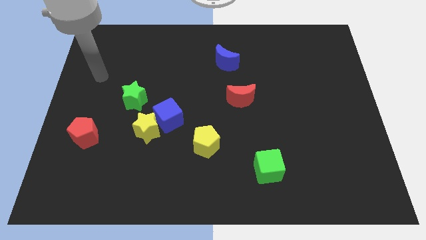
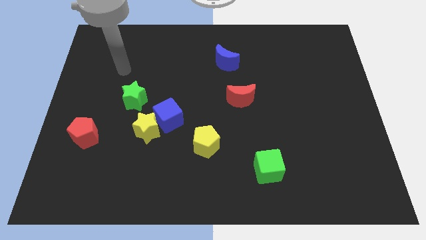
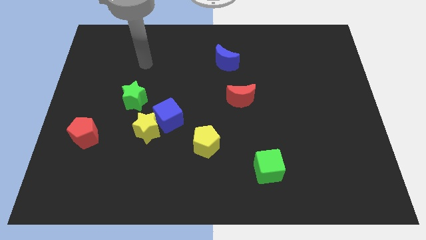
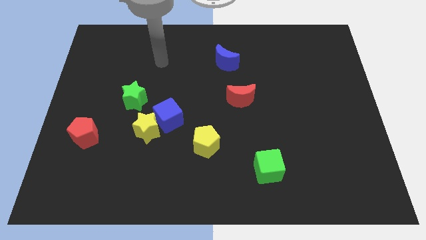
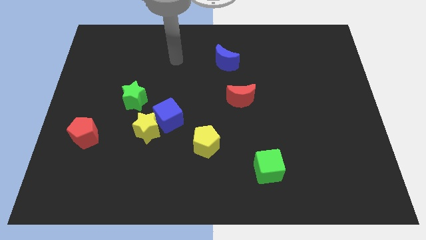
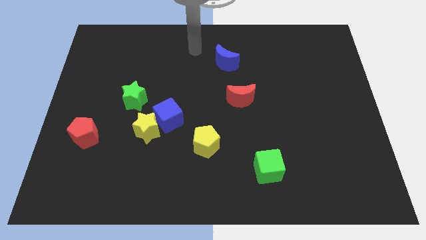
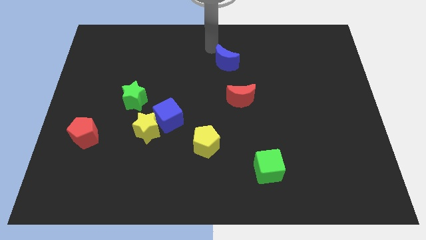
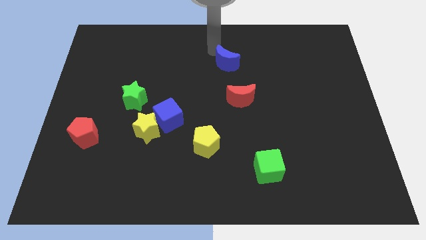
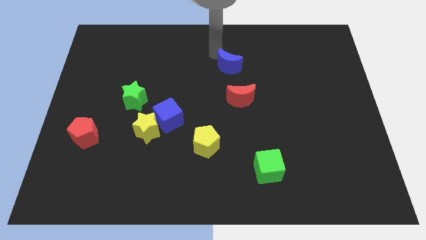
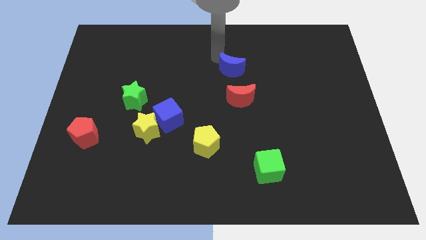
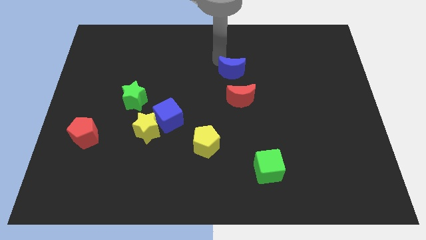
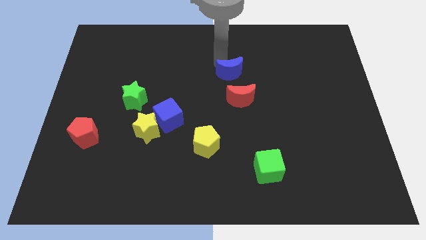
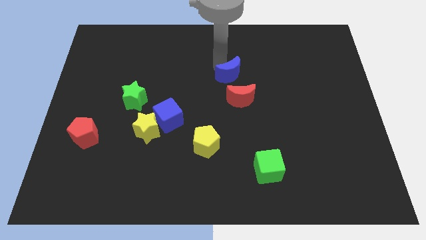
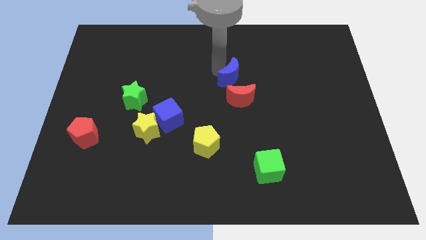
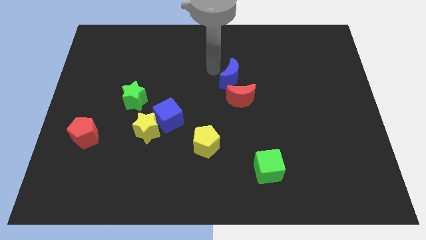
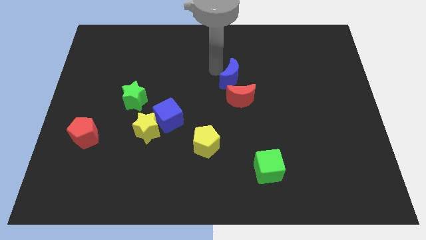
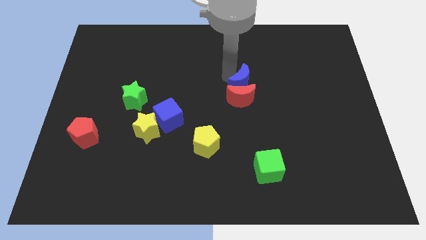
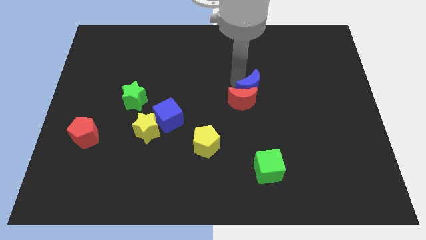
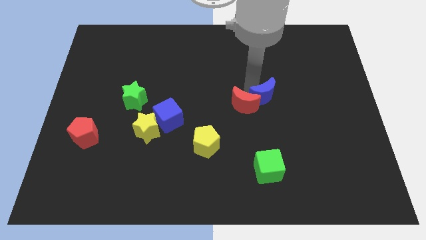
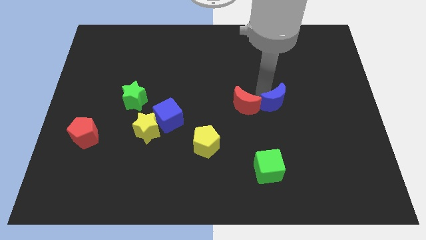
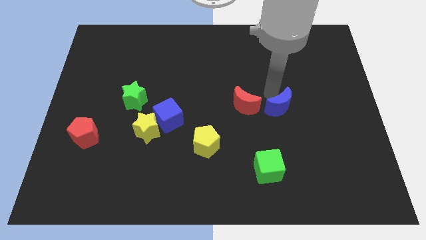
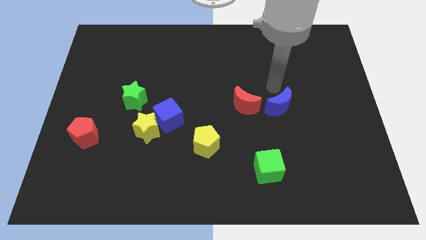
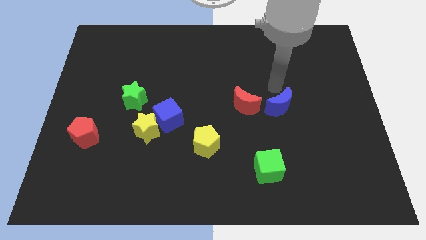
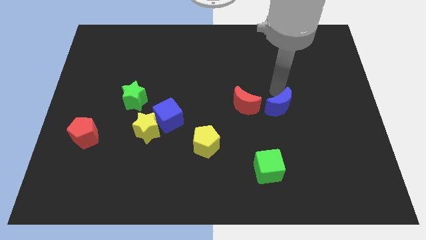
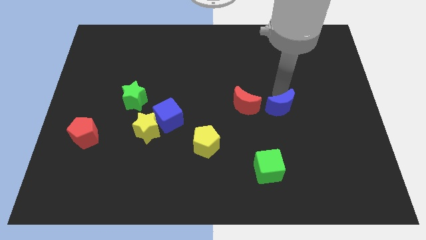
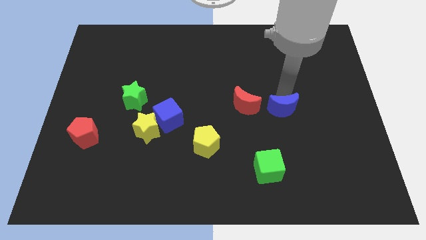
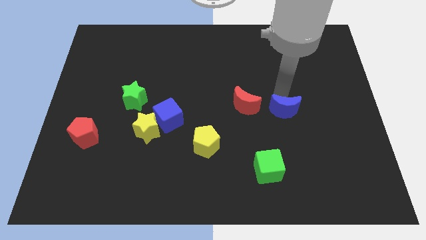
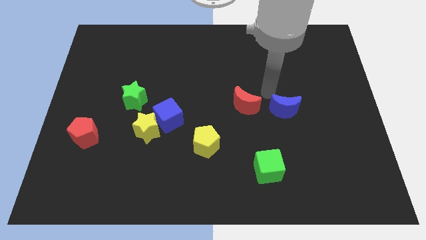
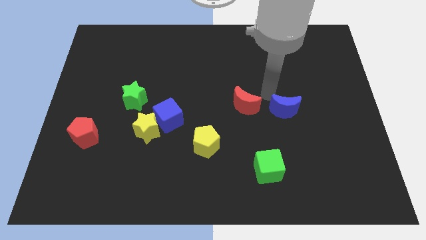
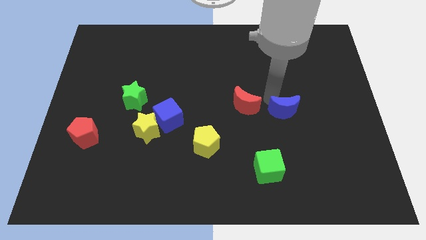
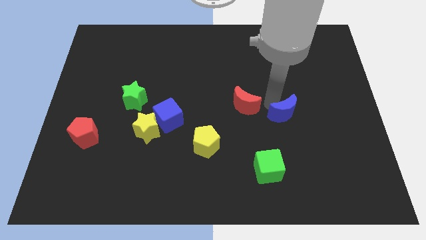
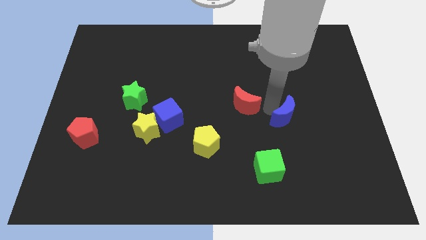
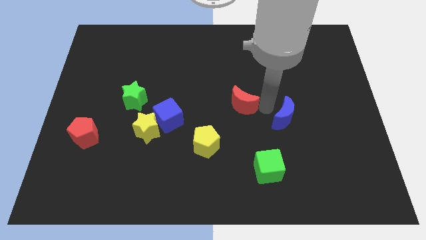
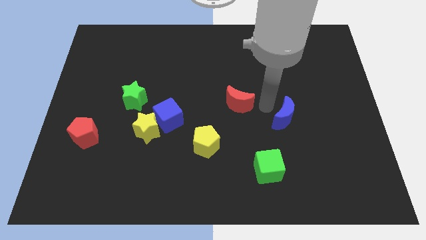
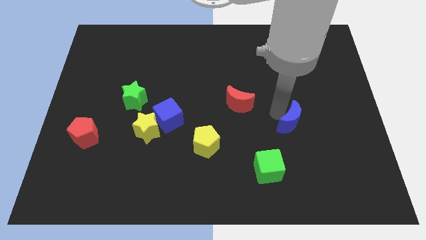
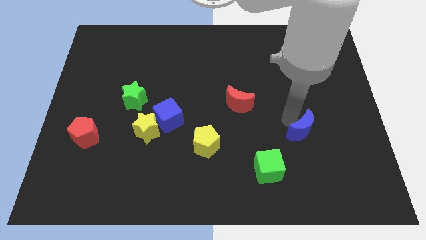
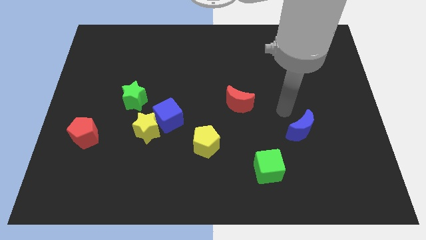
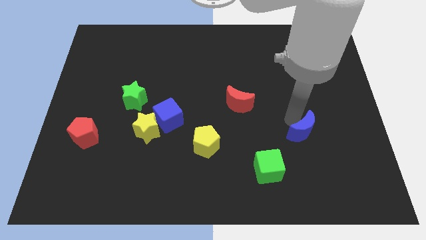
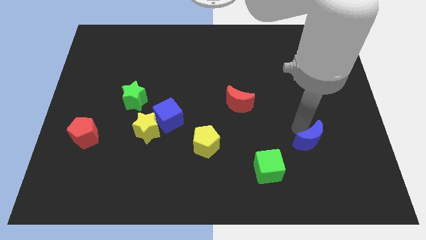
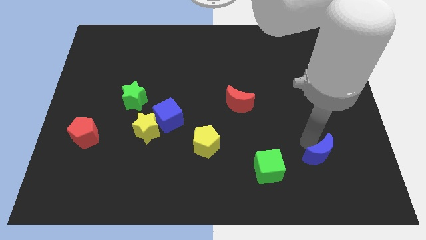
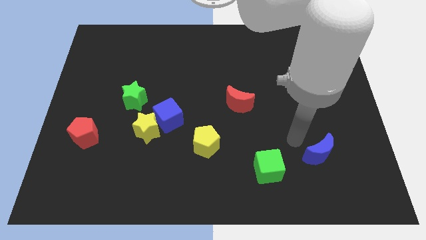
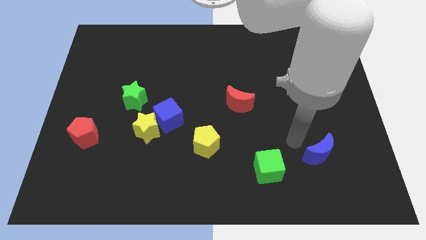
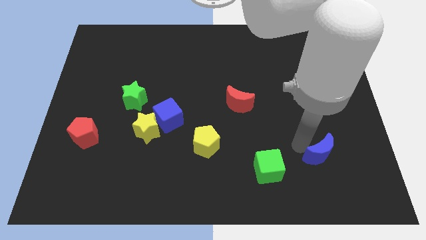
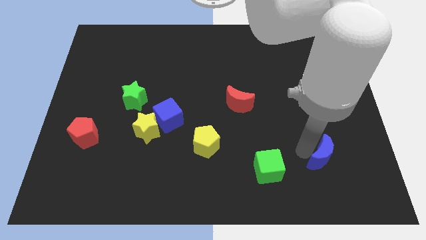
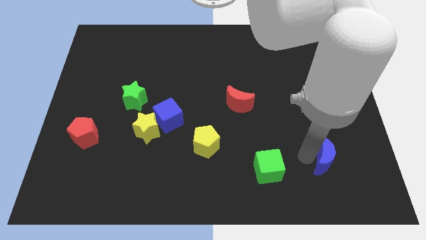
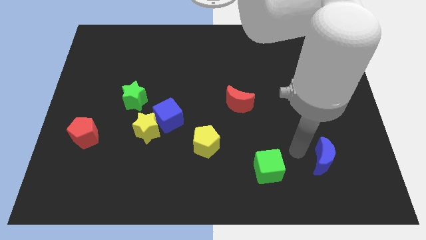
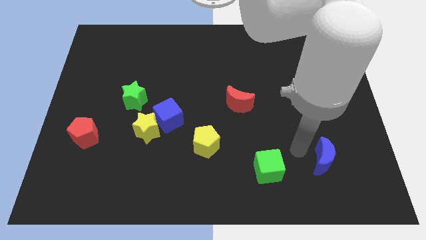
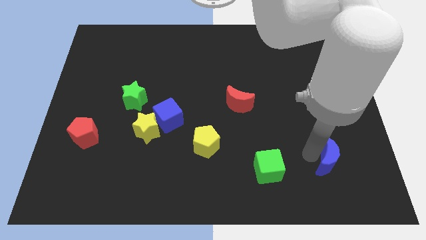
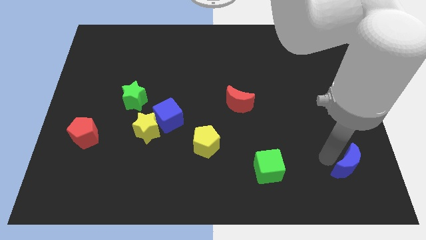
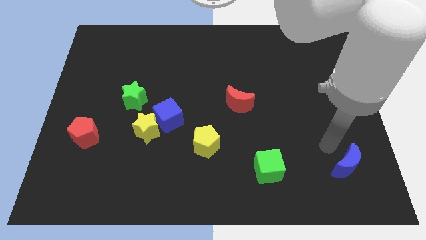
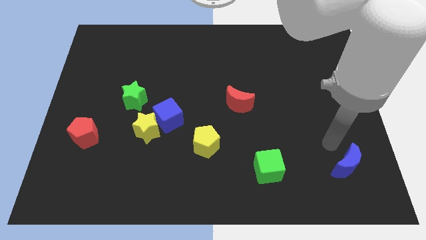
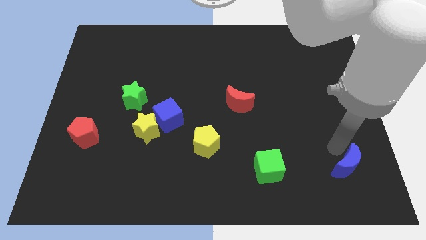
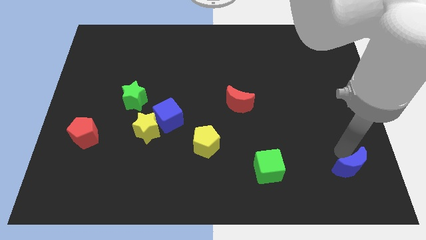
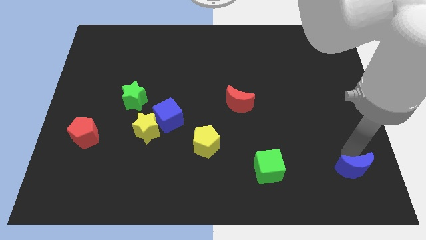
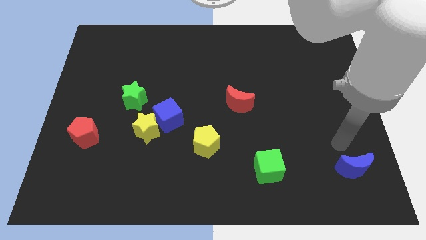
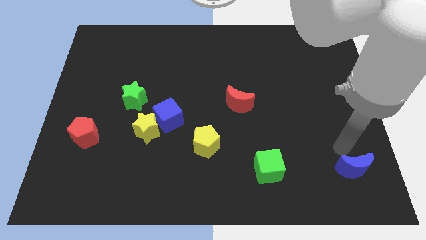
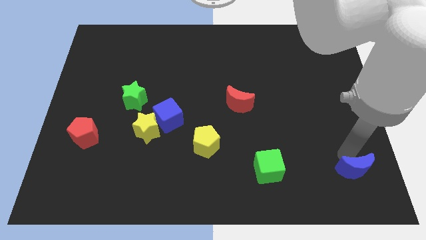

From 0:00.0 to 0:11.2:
slide the blue moon to the lower right corner

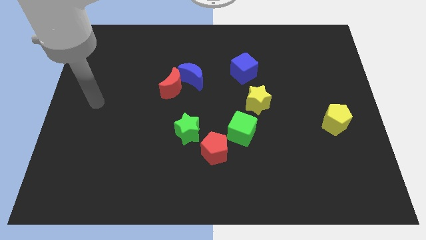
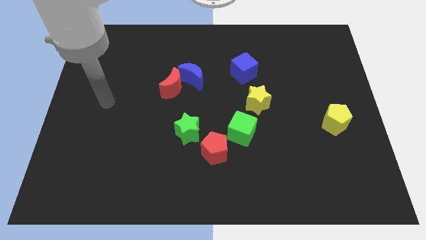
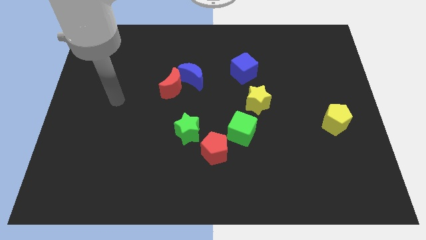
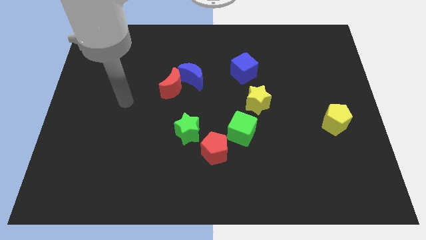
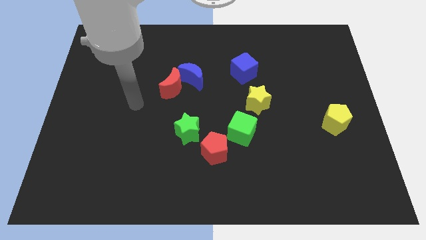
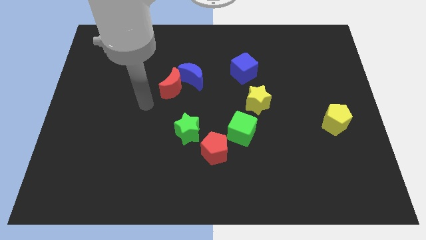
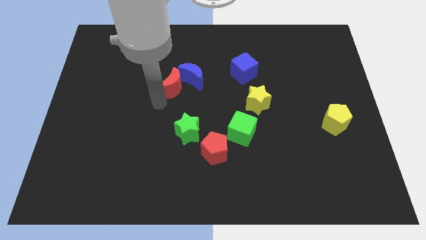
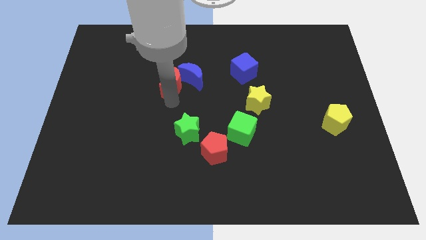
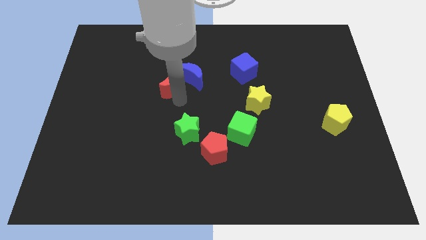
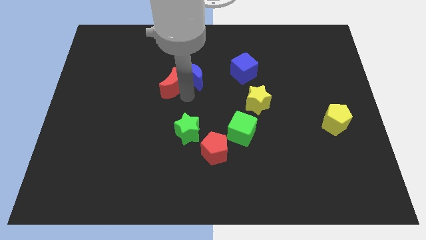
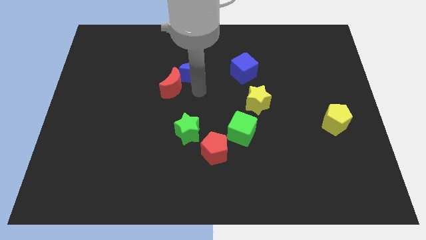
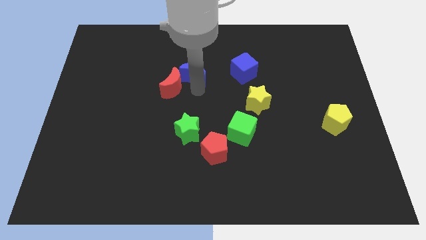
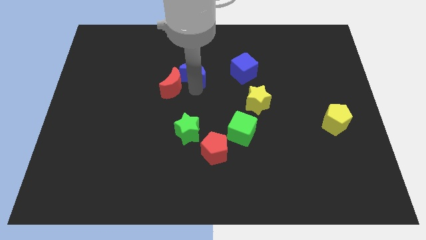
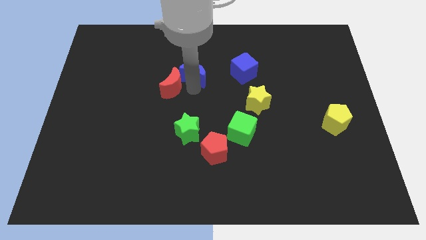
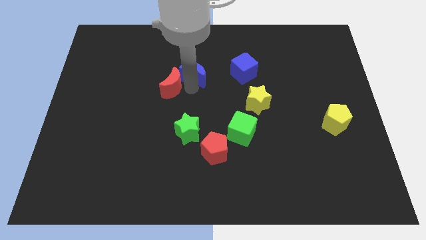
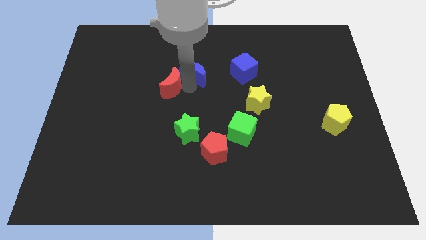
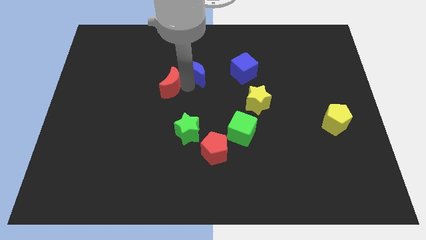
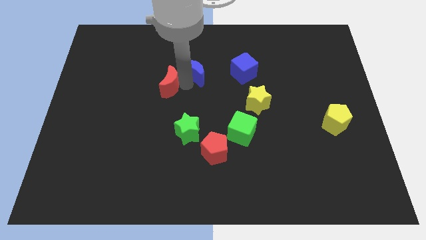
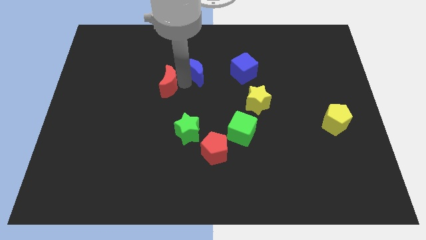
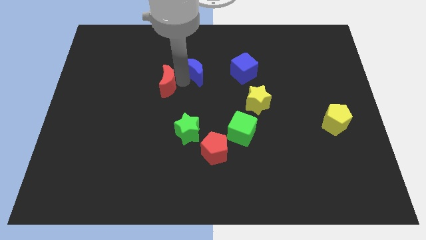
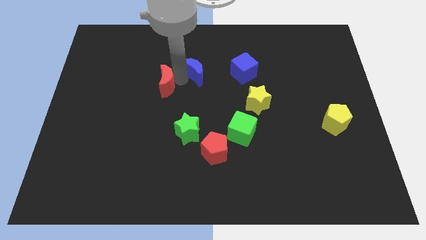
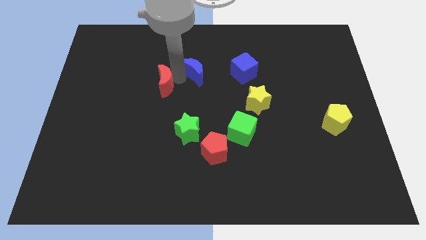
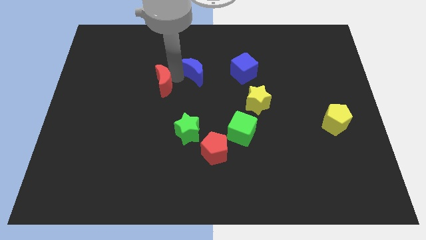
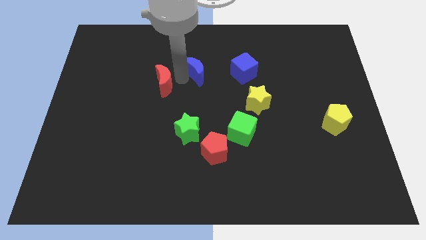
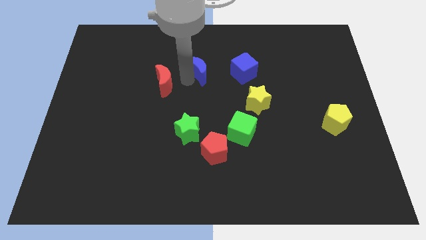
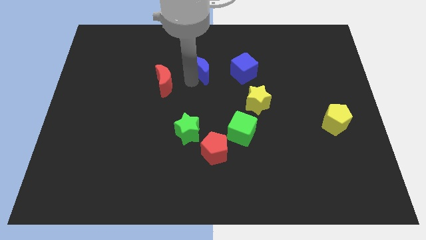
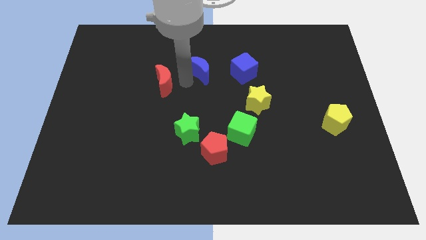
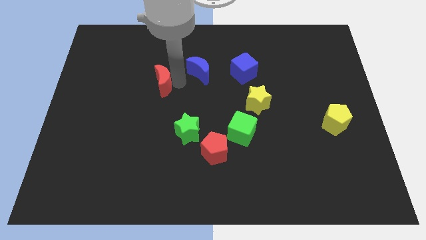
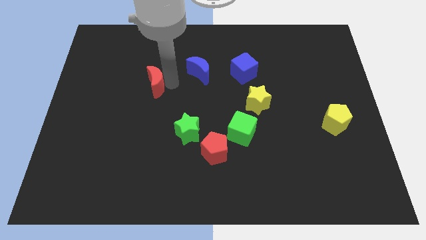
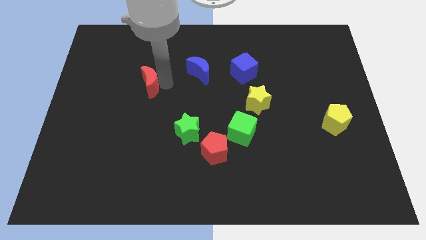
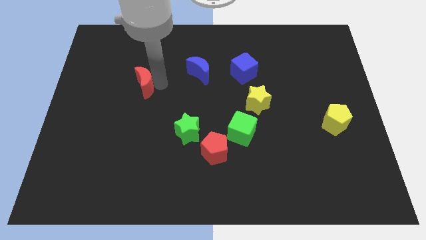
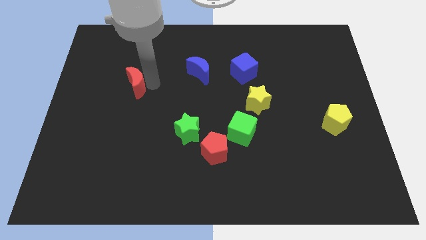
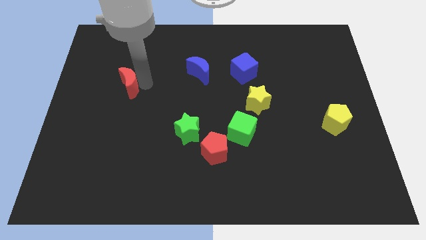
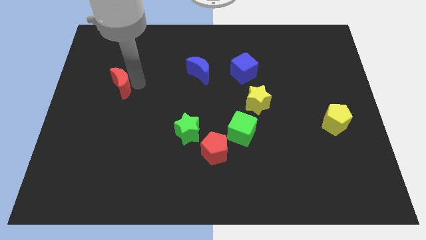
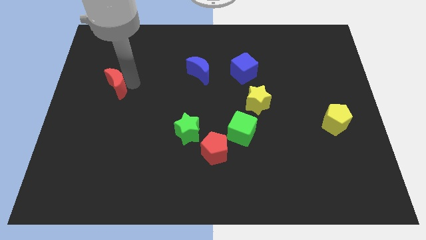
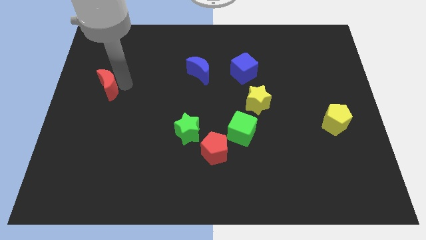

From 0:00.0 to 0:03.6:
push the red moon to the left side of the board
